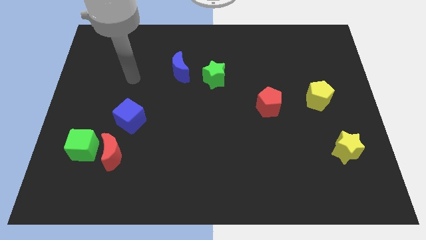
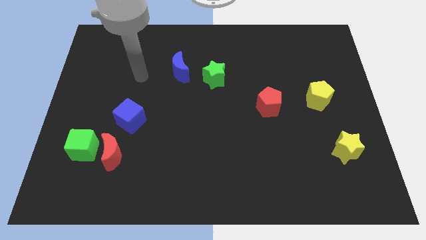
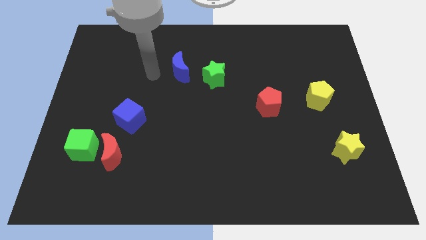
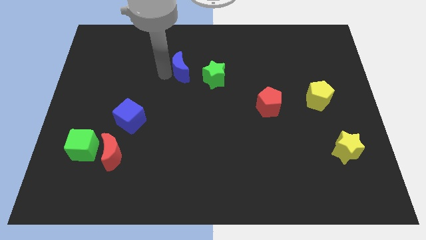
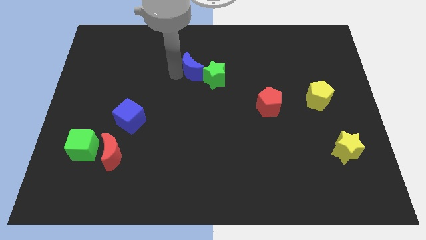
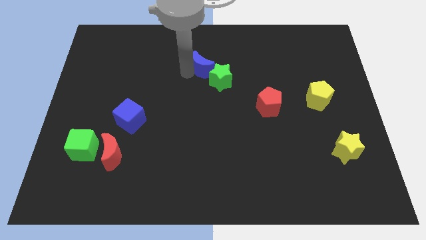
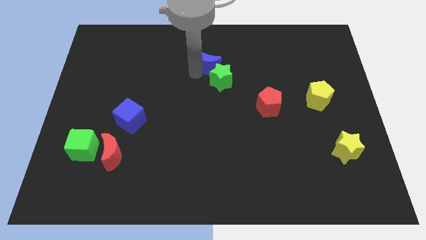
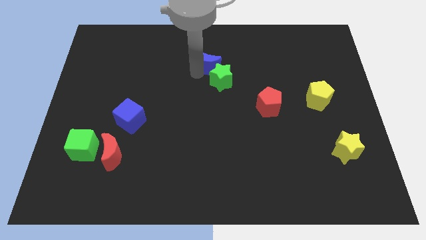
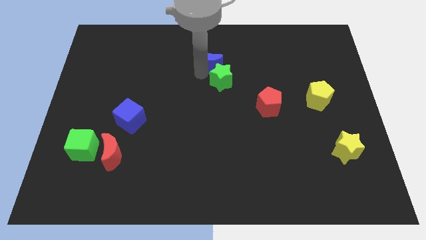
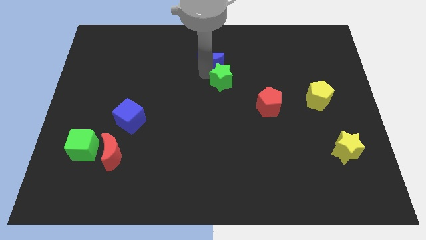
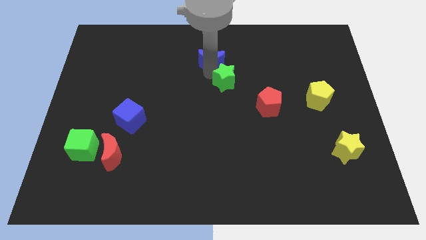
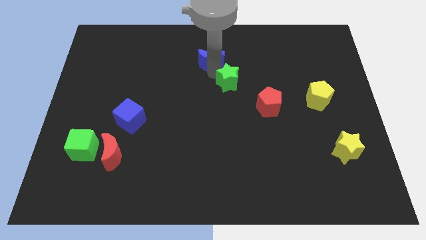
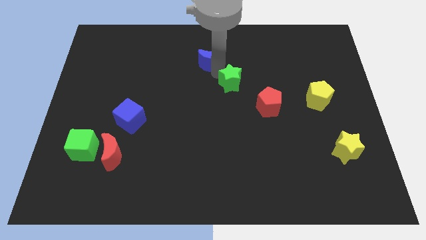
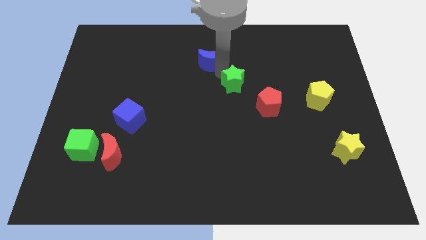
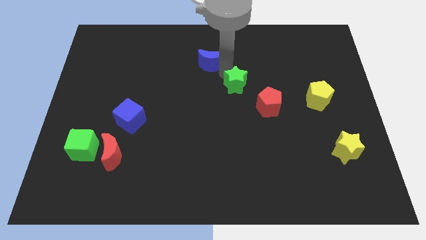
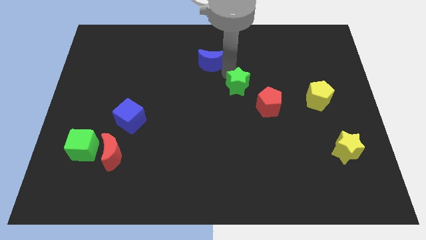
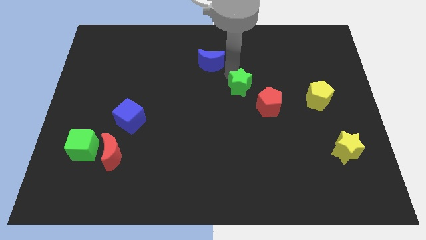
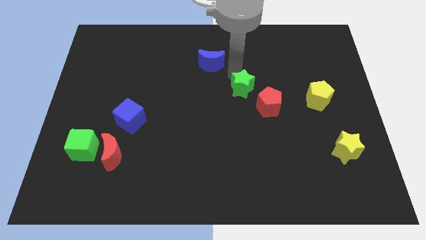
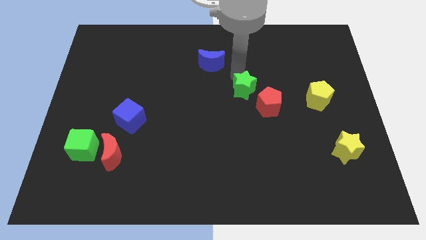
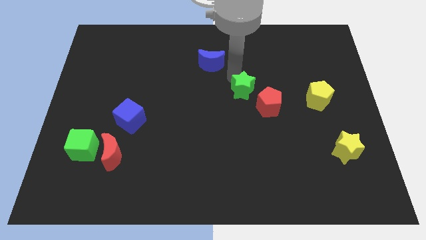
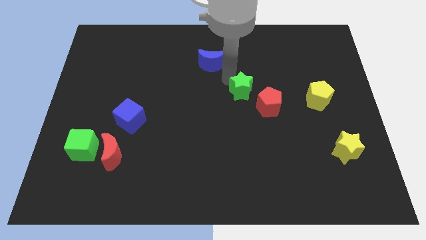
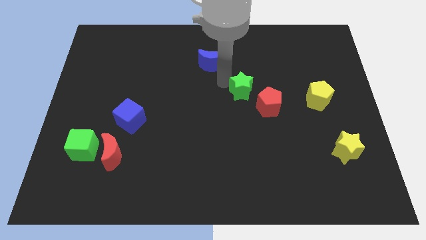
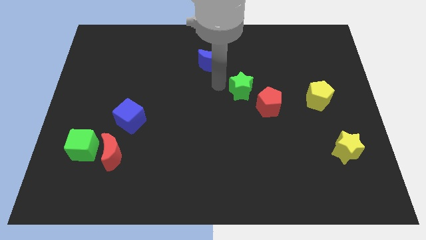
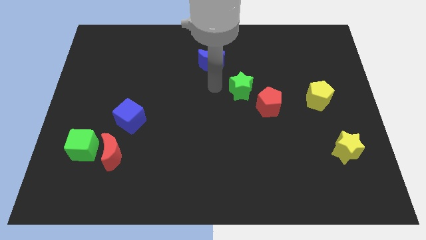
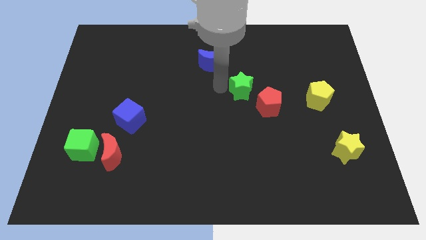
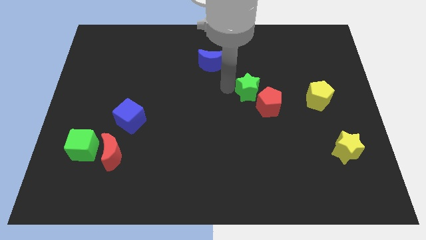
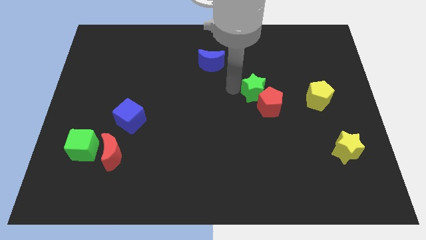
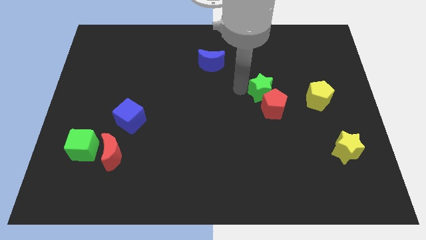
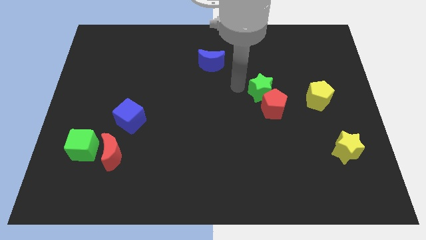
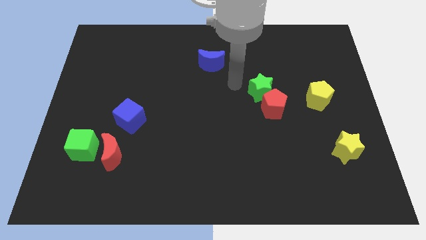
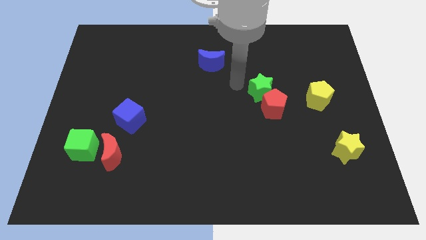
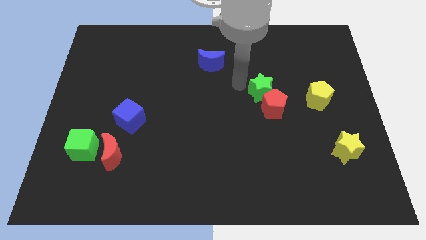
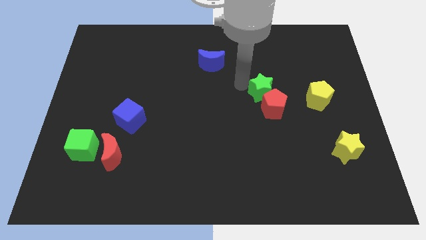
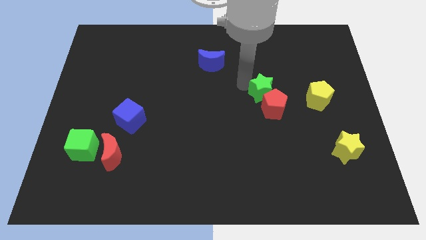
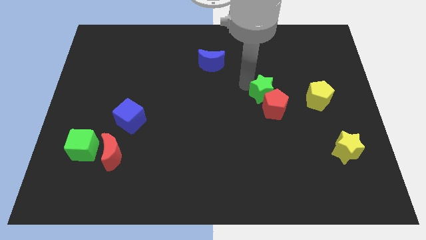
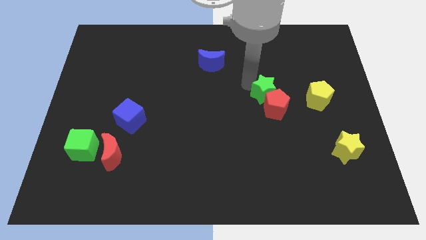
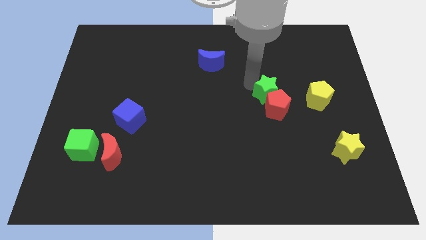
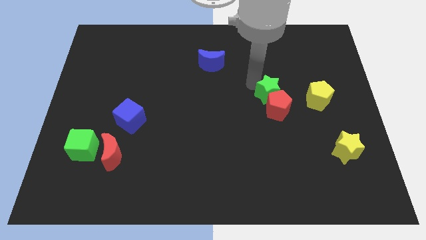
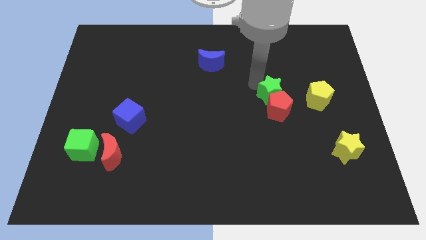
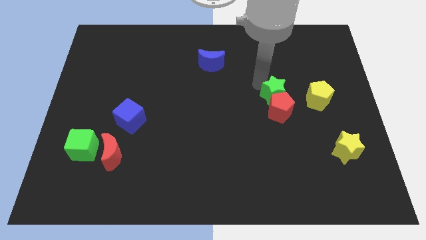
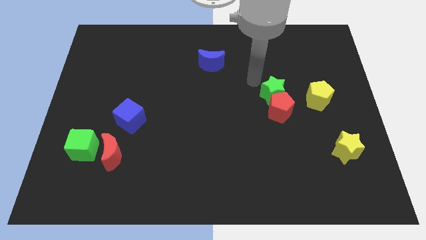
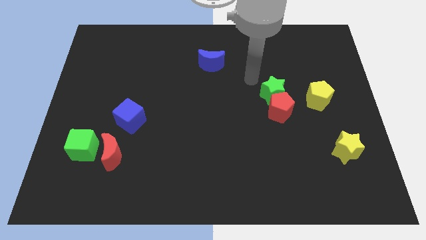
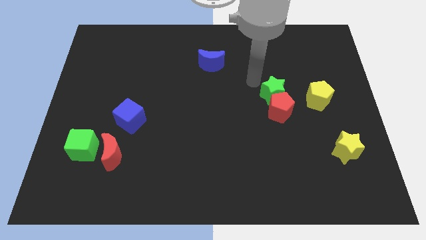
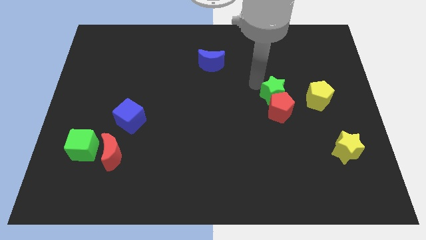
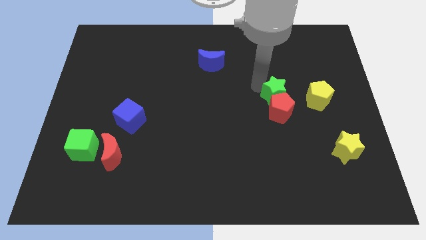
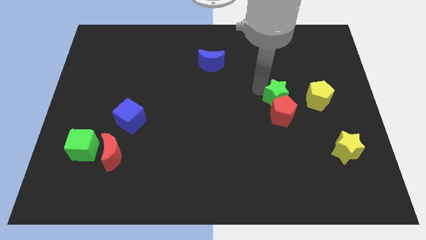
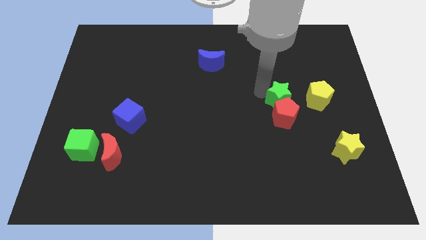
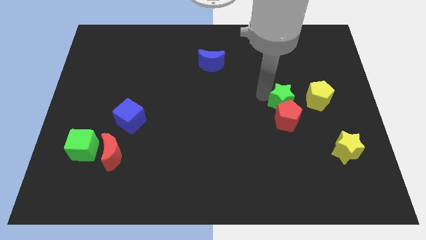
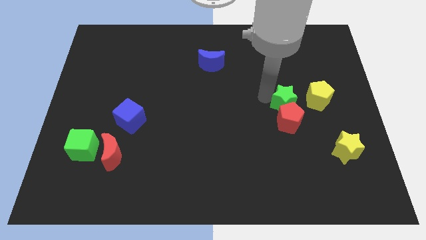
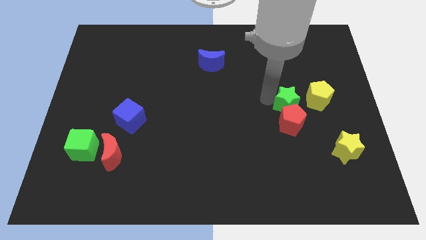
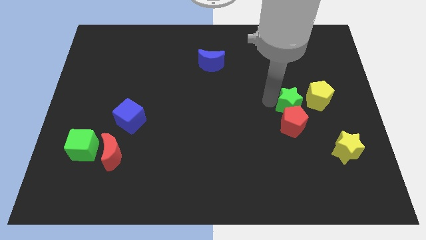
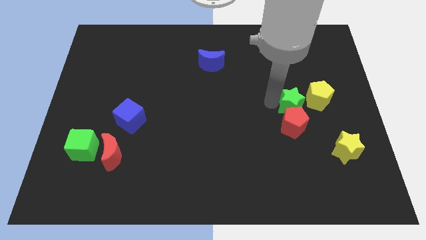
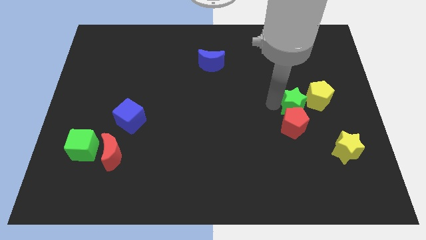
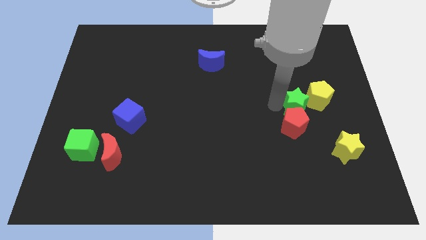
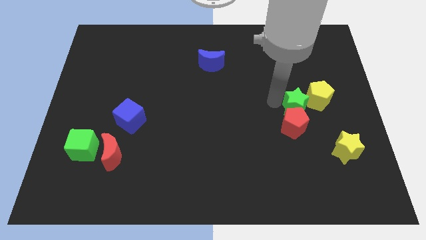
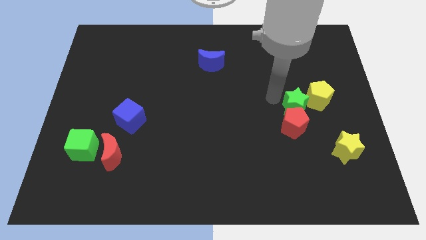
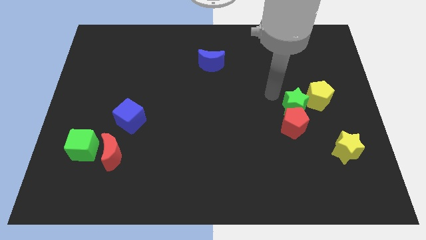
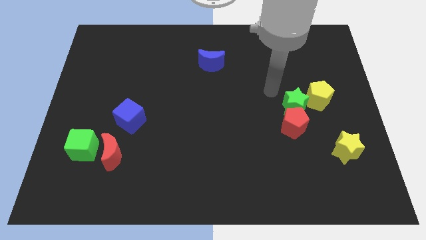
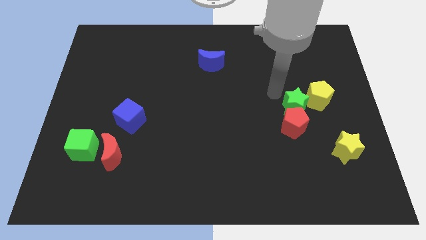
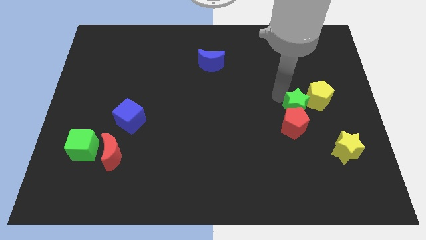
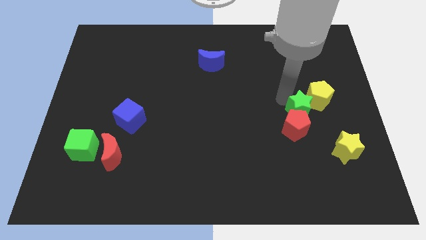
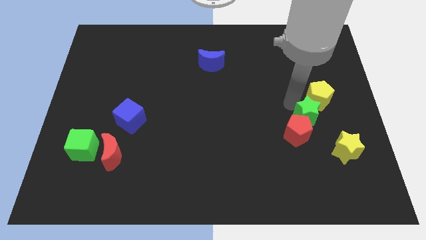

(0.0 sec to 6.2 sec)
push the green star to the bottom side of the yellow pentagon
